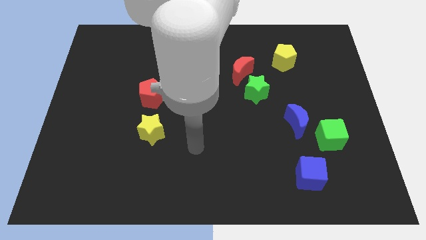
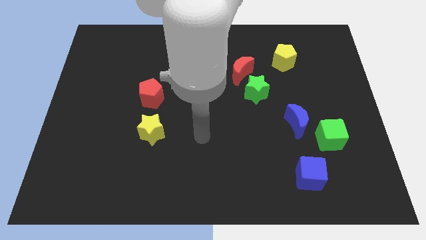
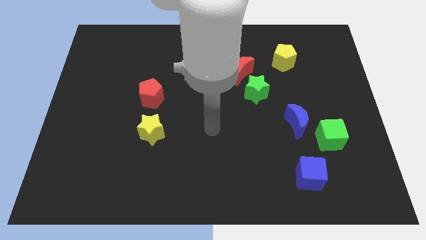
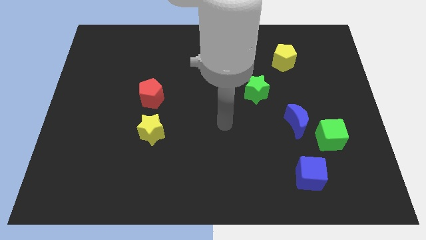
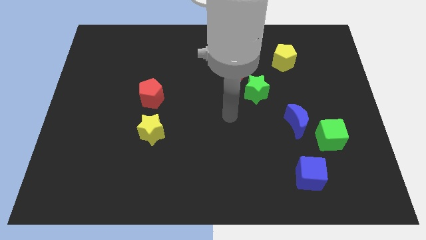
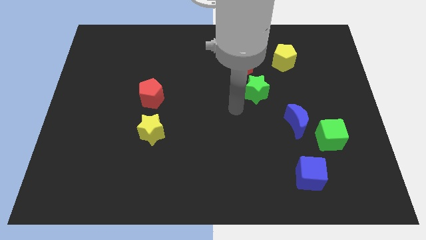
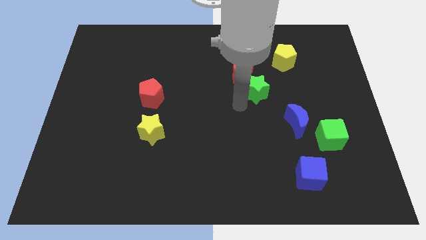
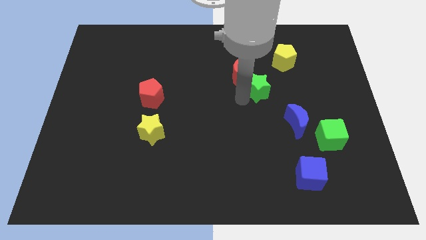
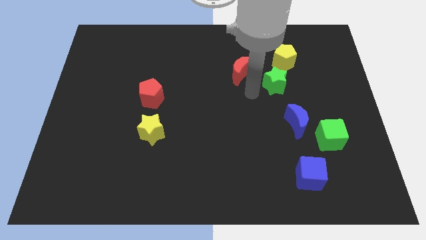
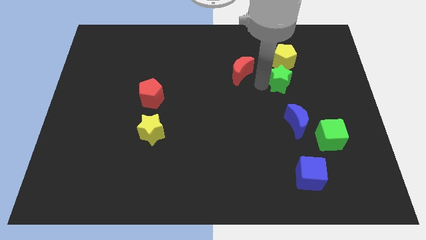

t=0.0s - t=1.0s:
move the red moon away from the green star

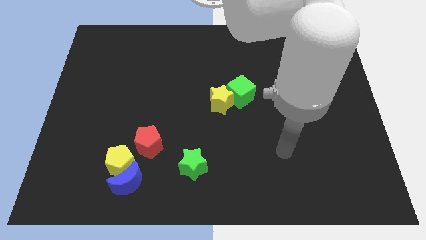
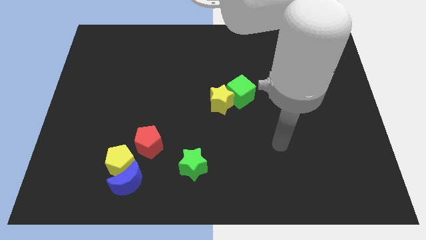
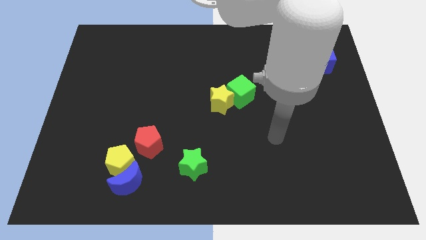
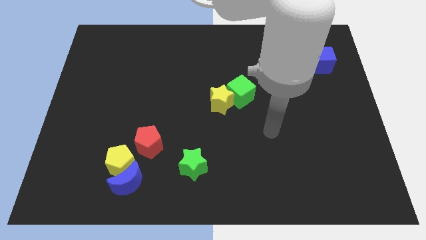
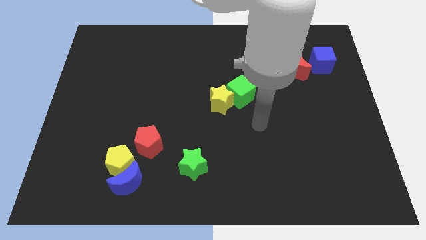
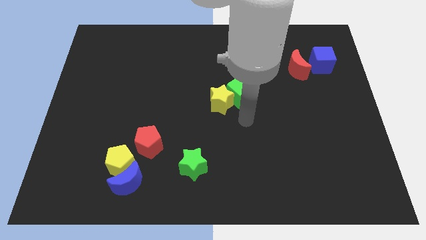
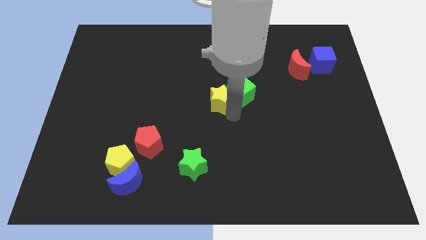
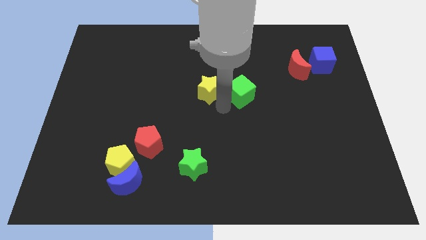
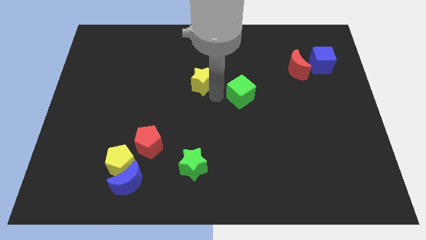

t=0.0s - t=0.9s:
pull the green cube apart from the yellow star

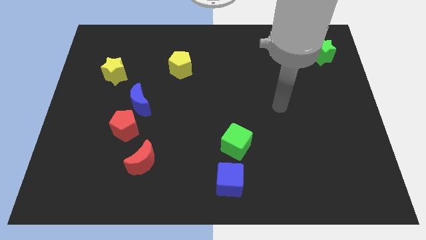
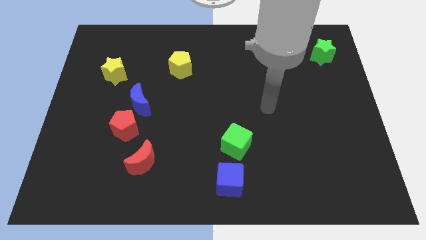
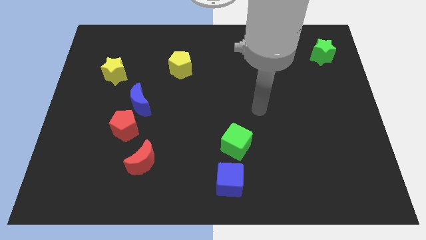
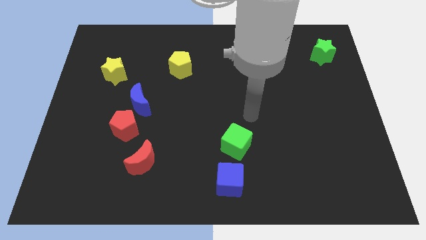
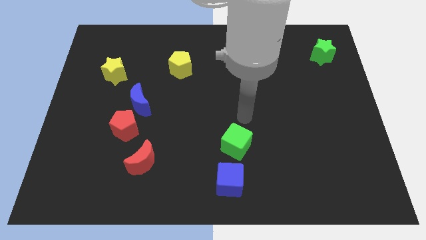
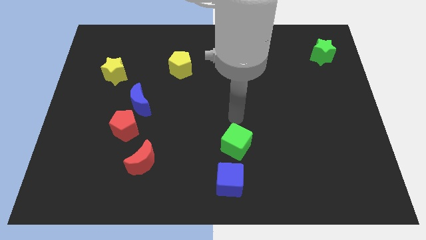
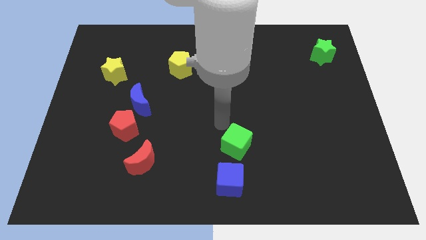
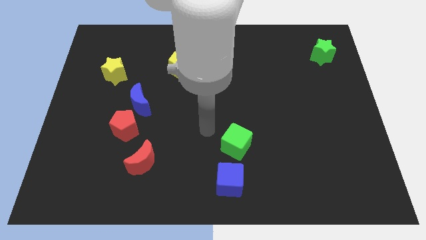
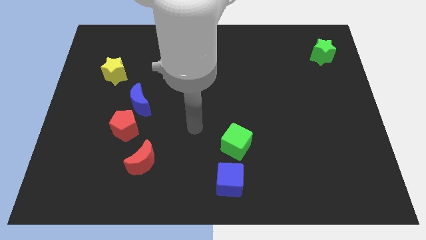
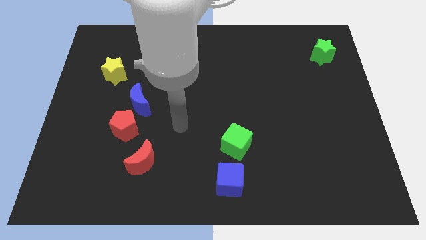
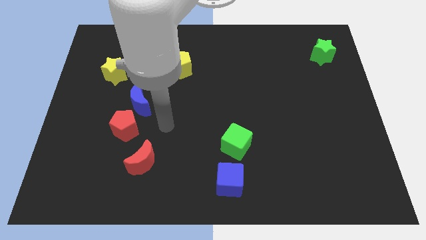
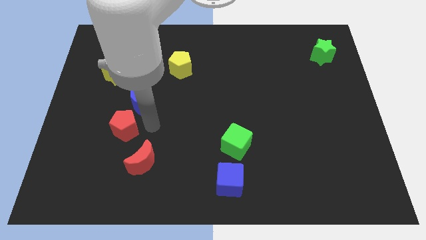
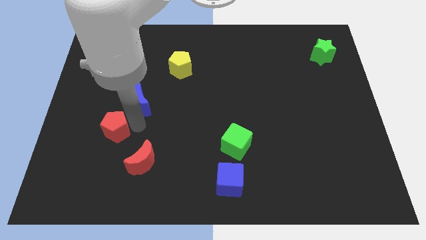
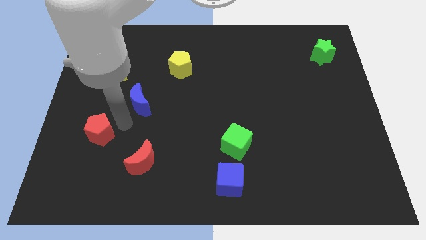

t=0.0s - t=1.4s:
pull the blue moon apart from the red pentagon

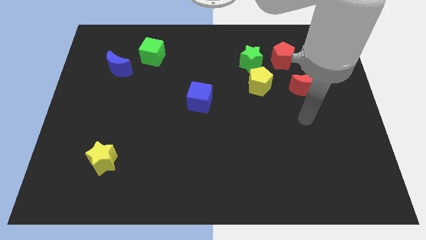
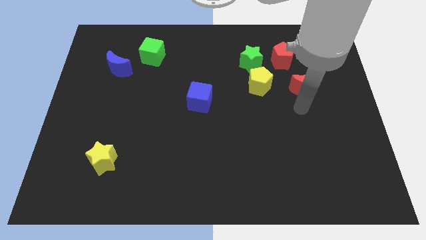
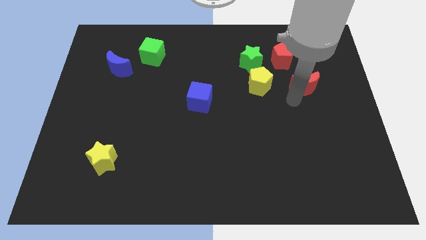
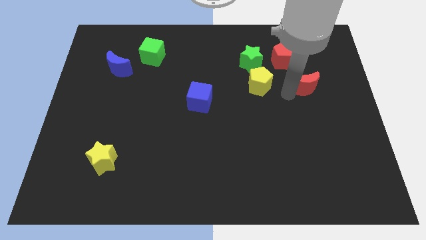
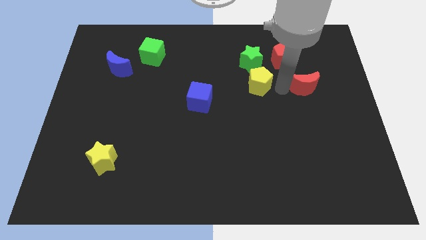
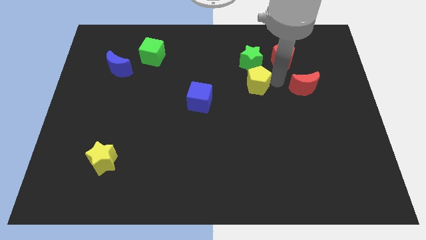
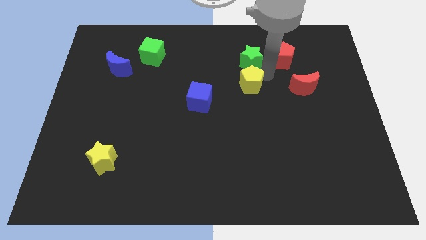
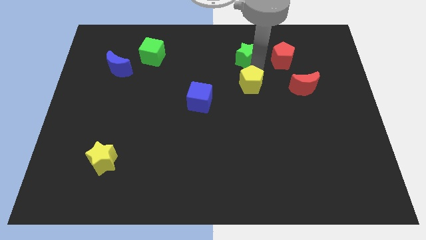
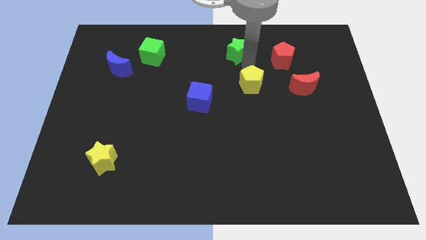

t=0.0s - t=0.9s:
separate the yellow pentagon from the green star

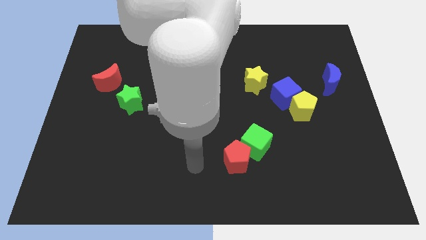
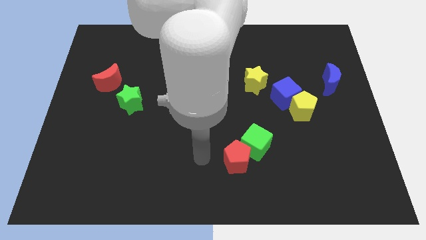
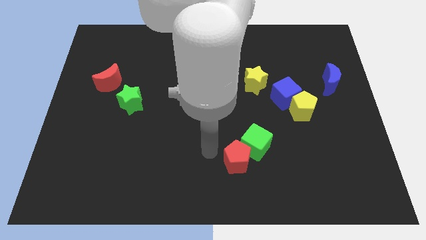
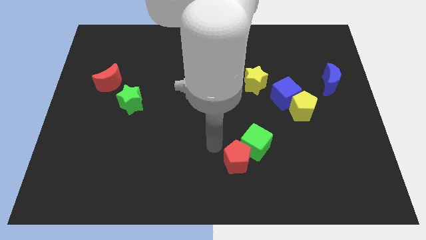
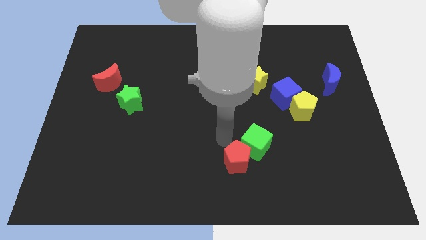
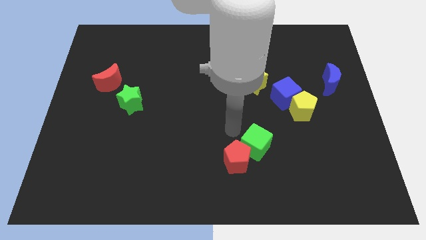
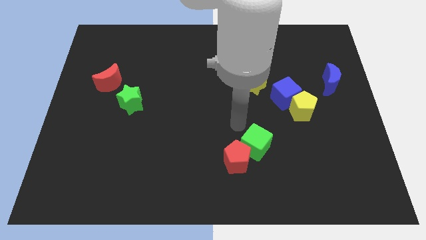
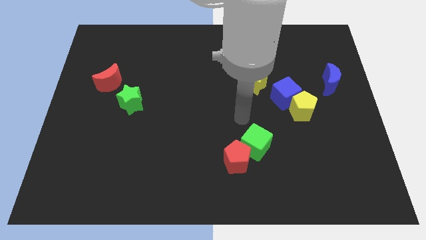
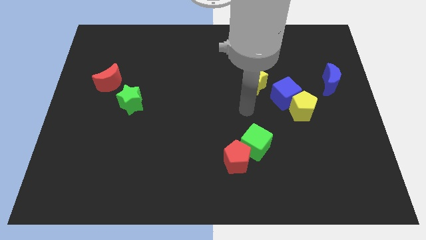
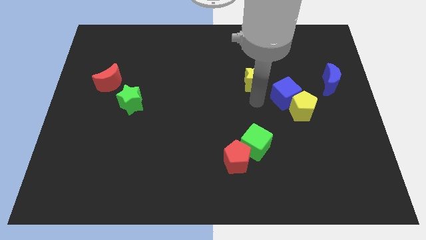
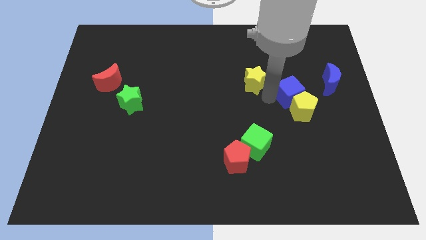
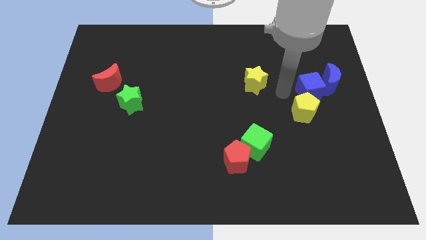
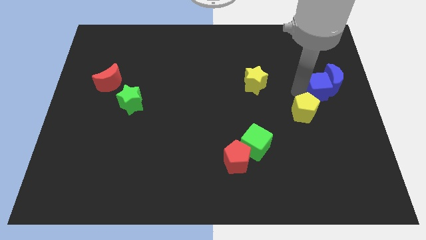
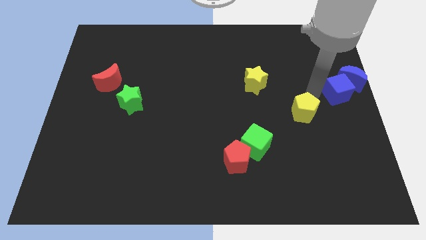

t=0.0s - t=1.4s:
pull the yellow pentagon apart from the blue cube

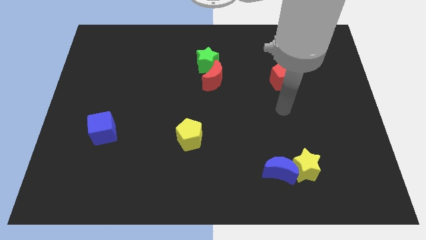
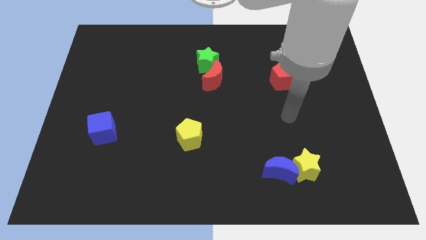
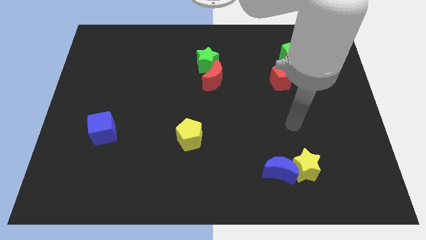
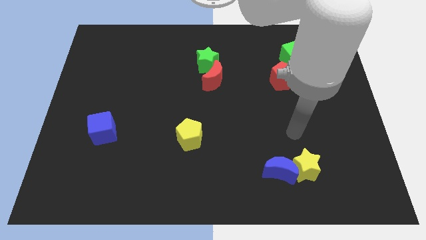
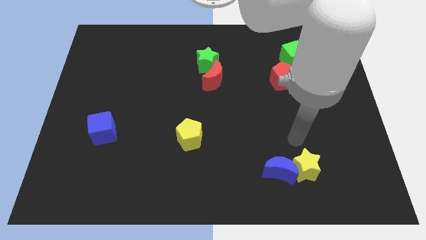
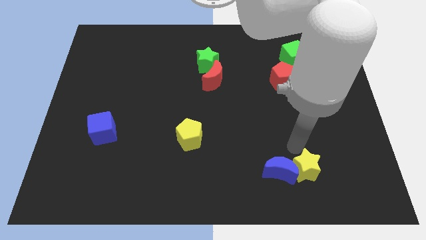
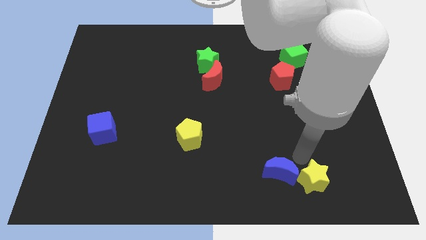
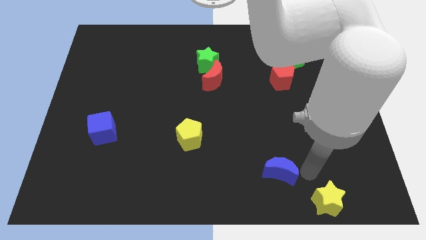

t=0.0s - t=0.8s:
separate the blue moon from the yellow star

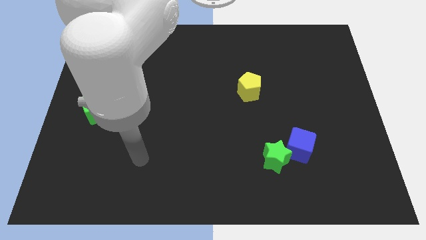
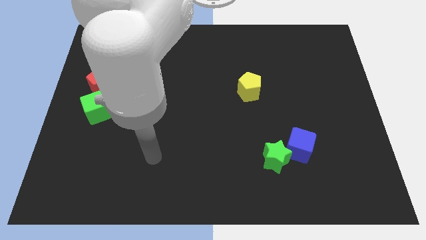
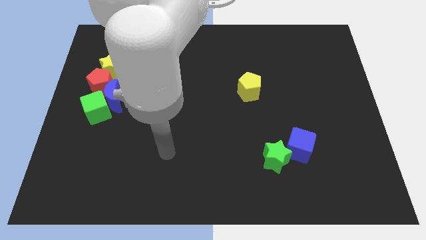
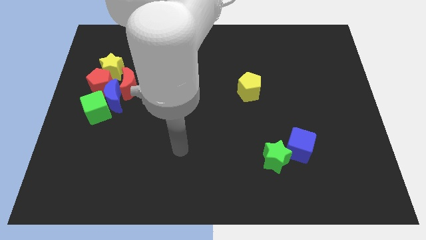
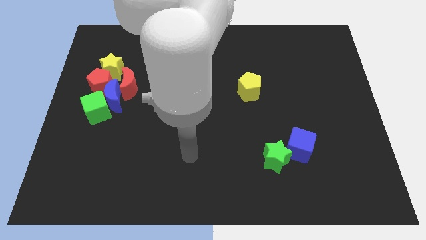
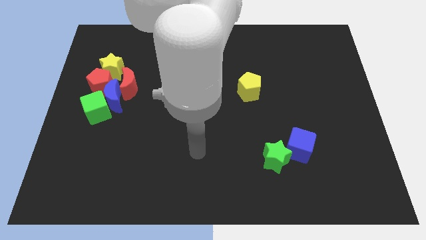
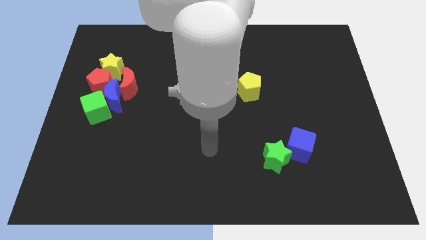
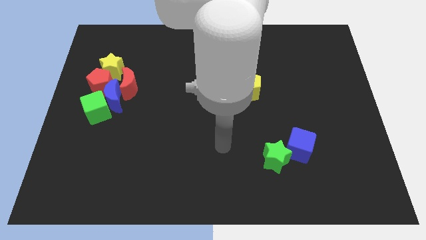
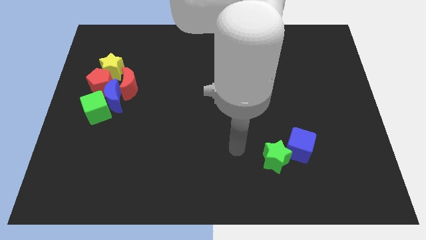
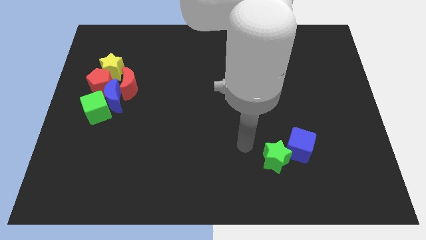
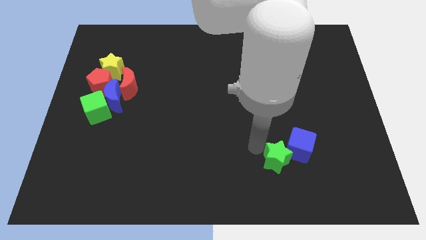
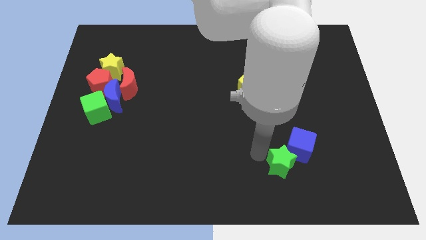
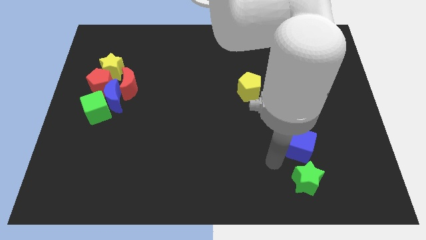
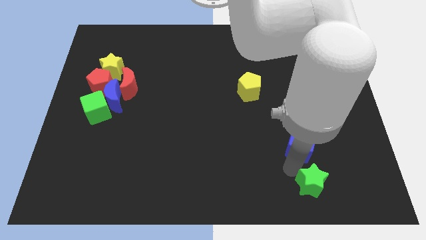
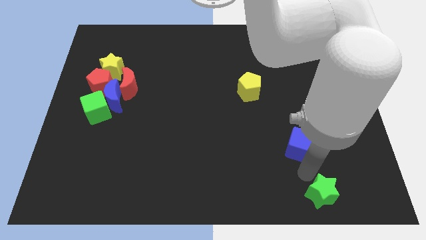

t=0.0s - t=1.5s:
move the blue cube away from the green star

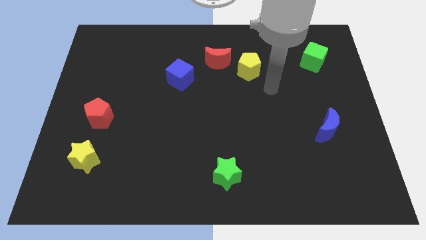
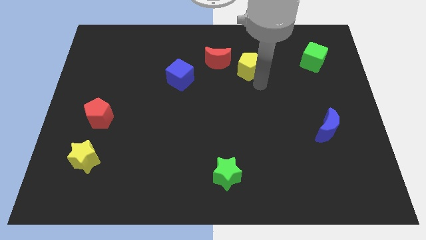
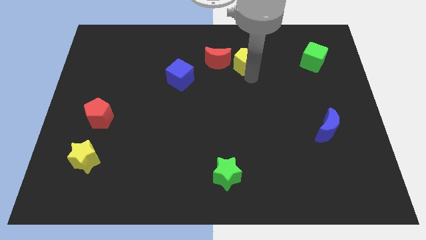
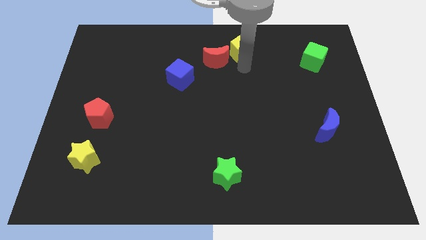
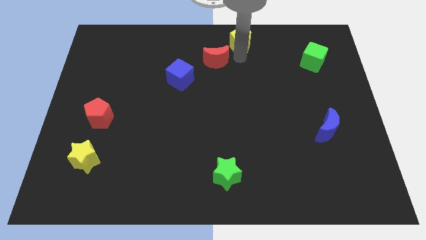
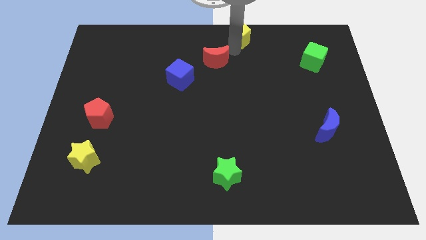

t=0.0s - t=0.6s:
separate the red moon from the yellow pentagon
